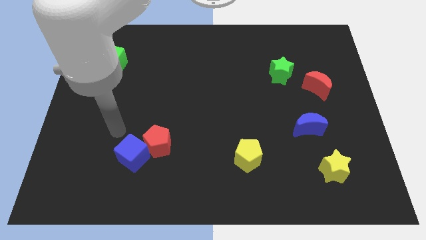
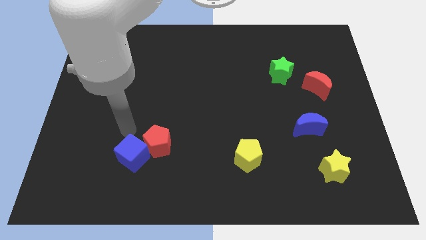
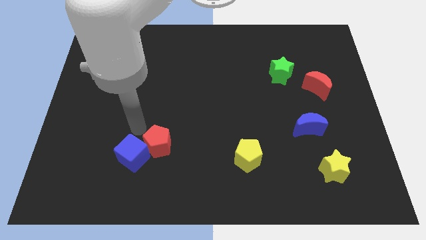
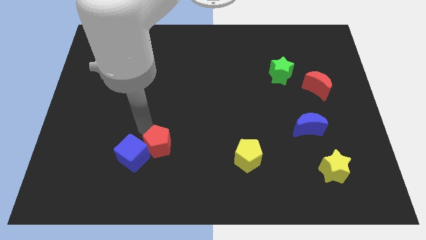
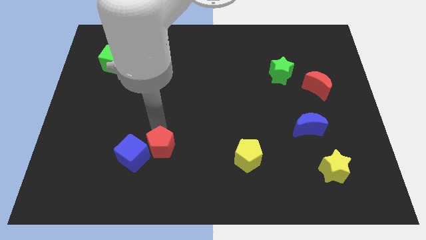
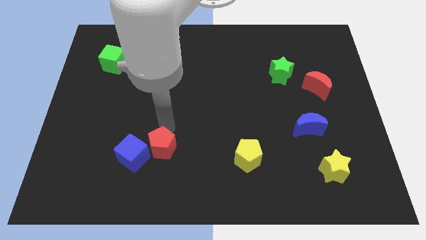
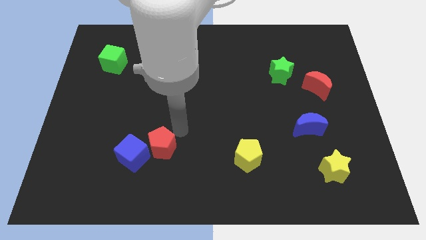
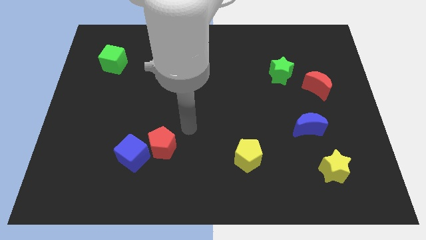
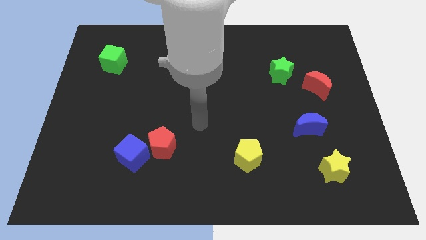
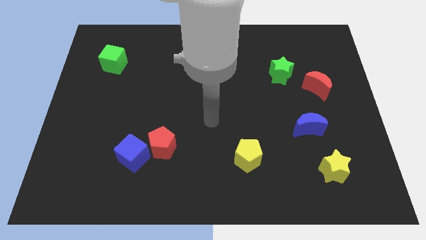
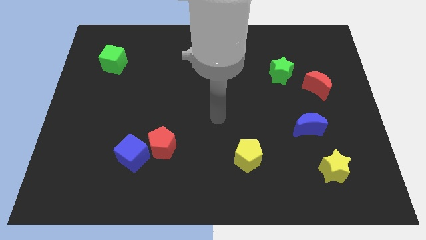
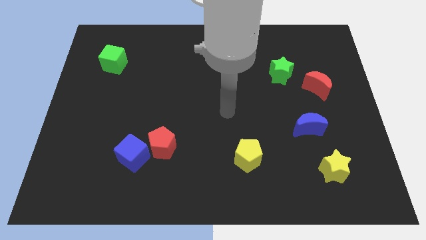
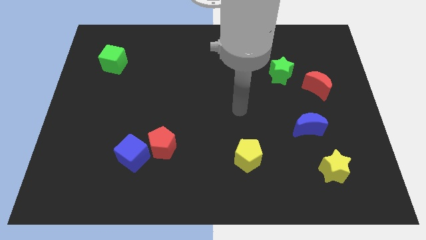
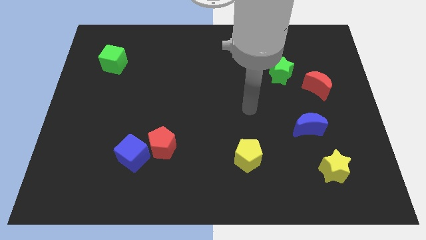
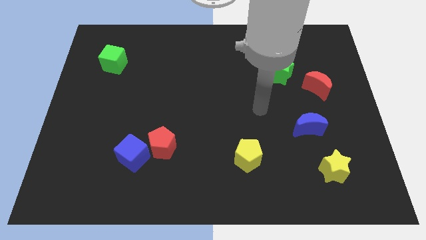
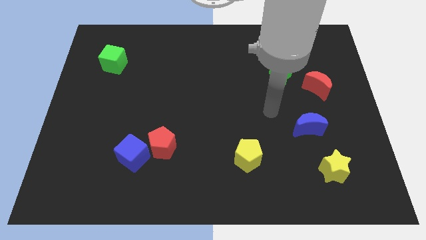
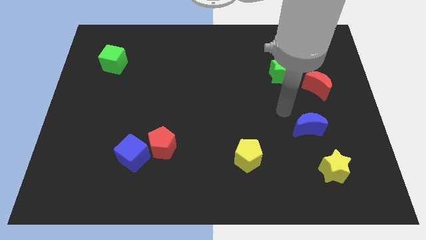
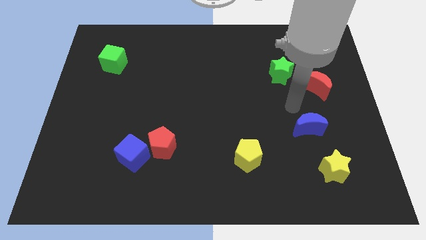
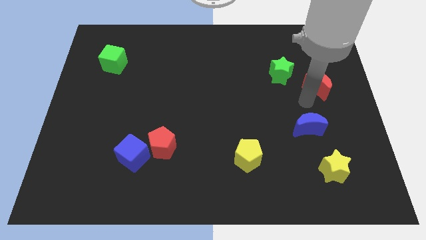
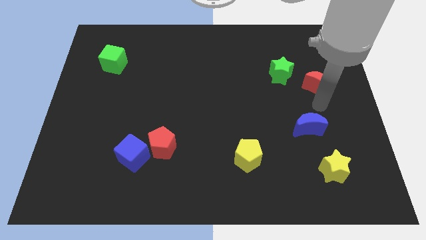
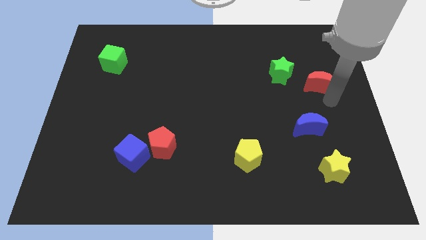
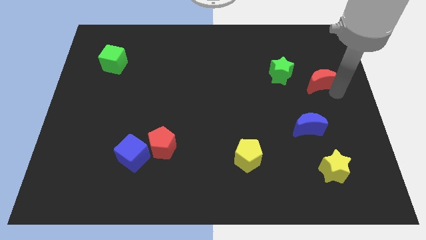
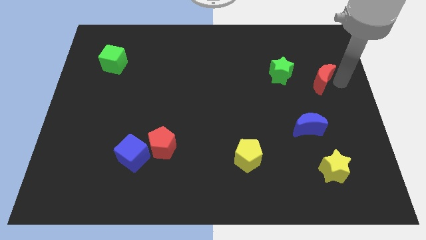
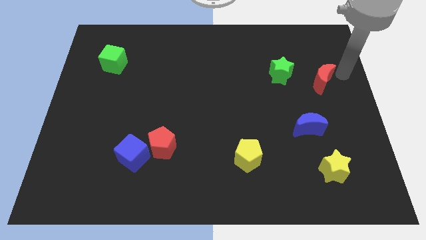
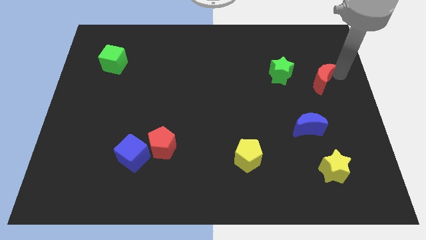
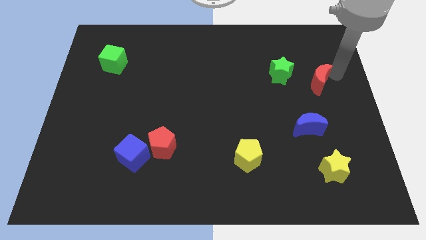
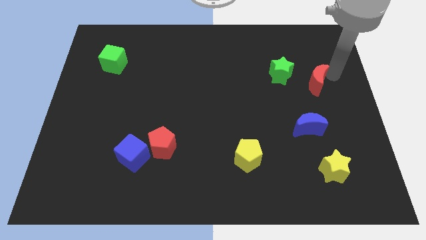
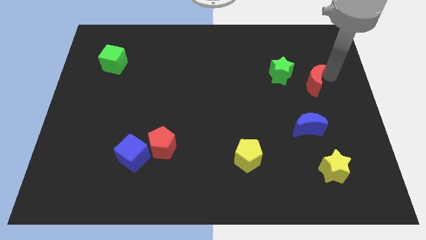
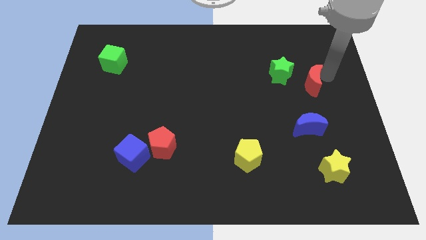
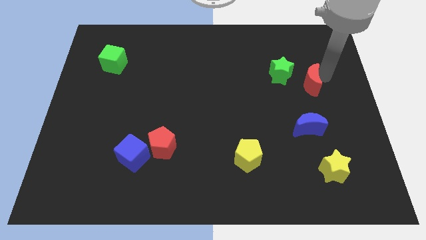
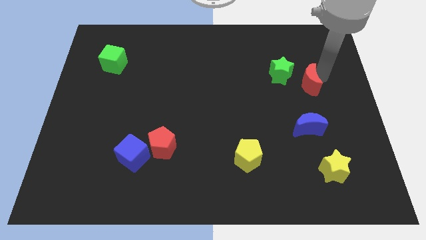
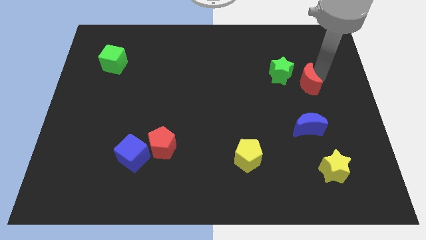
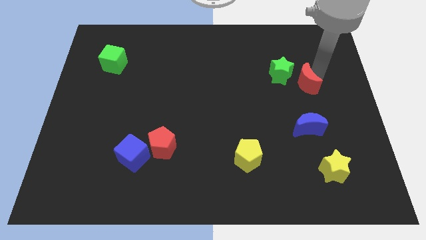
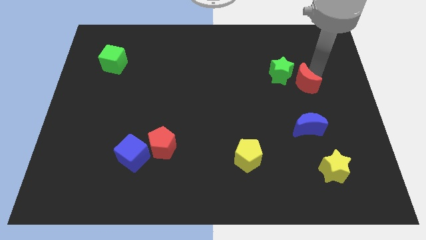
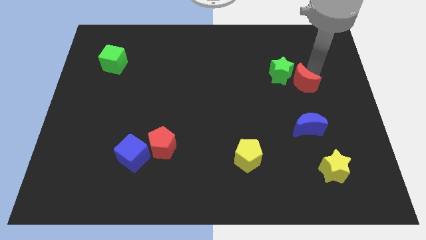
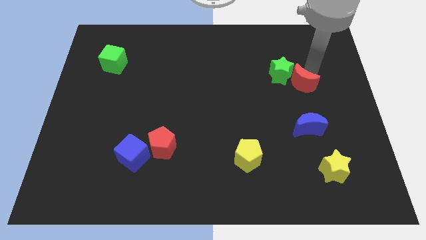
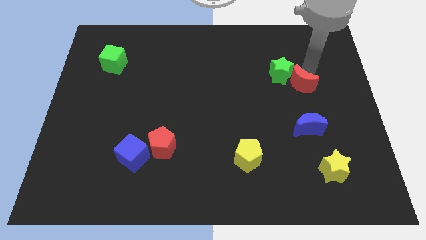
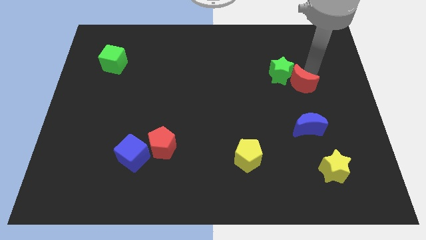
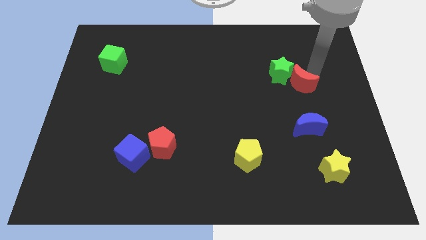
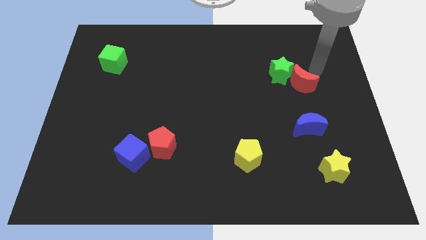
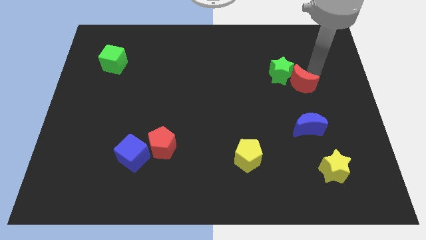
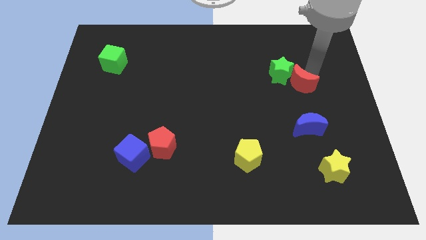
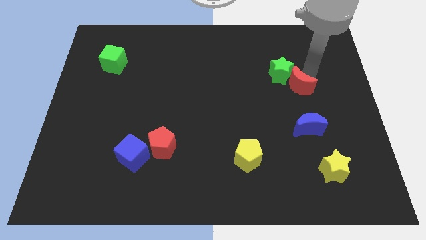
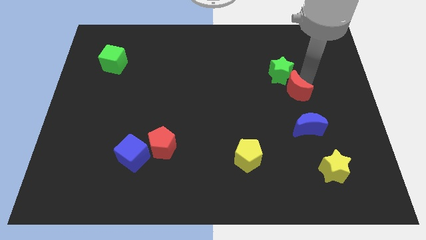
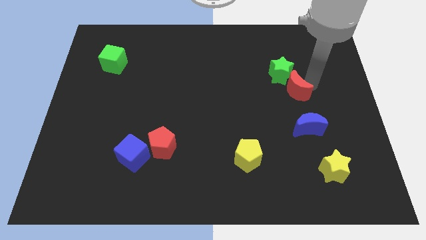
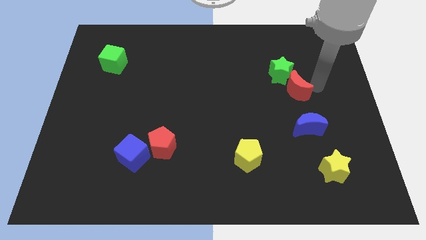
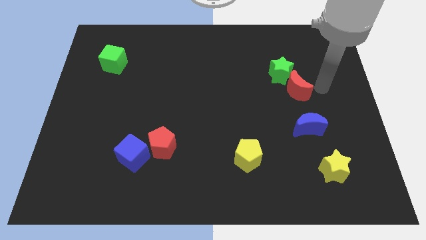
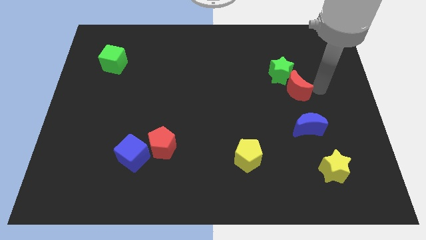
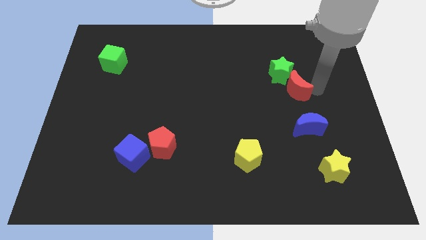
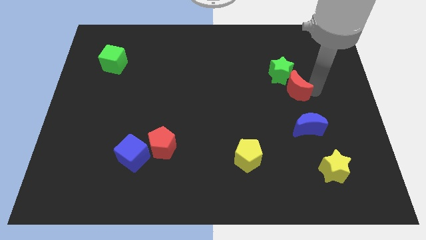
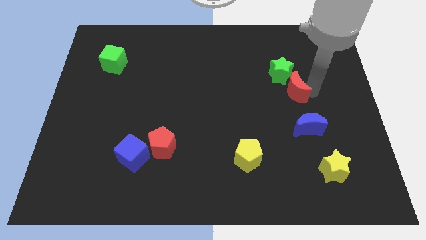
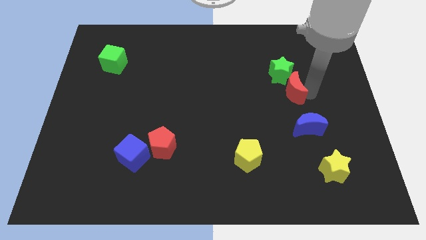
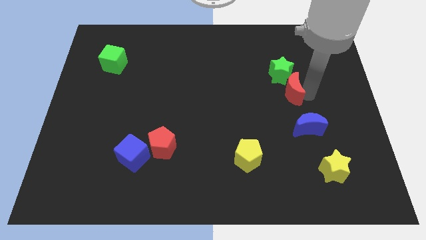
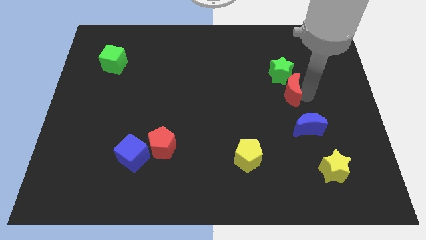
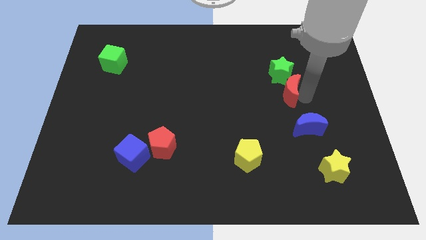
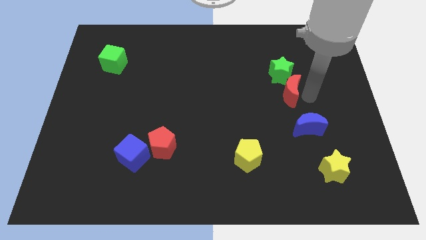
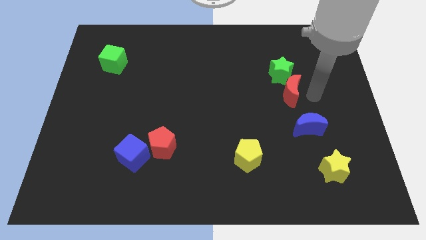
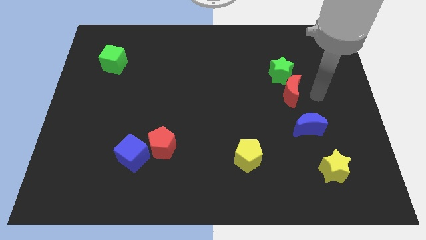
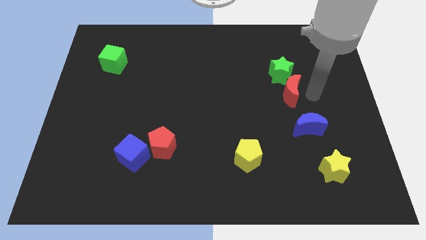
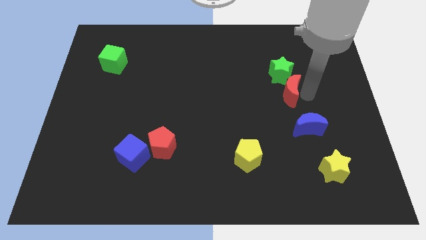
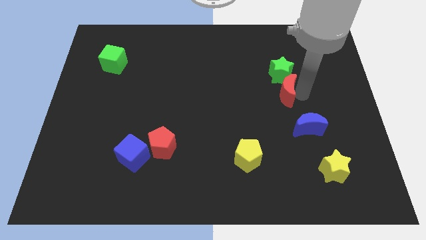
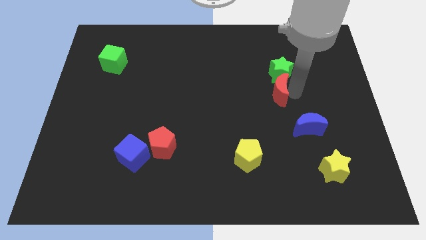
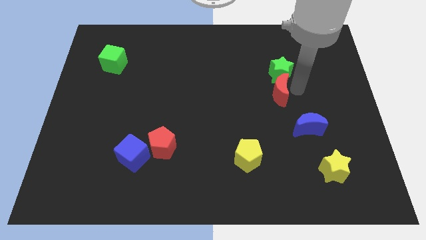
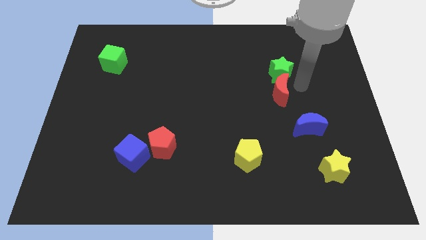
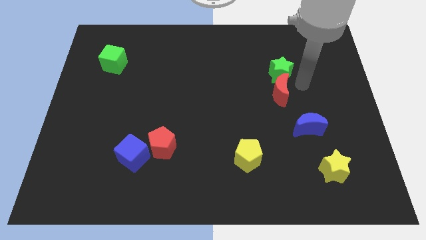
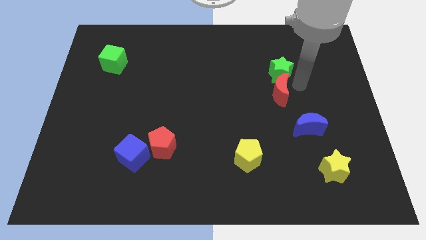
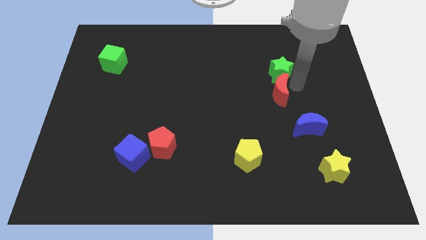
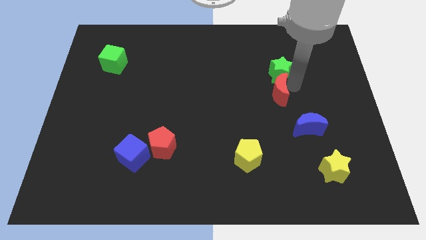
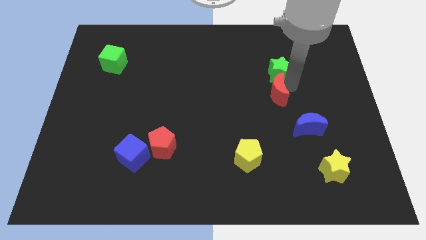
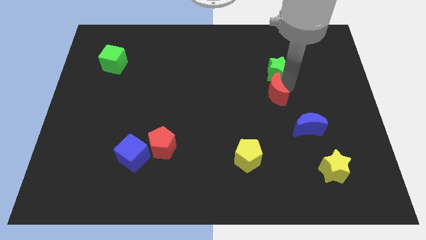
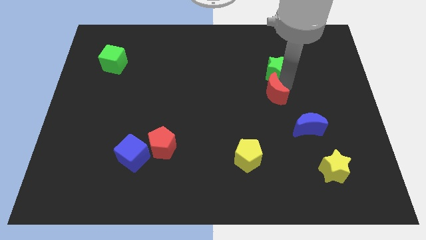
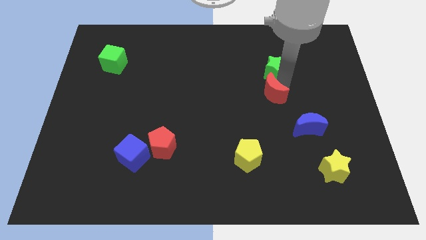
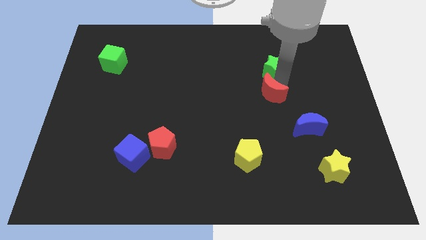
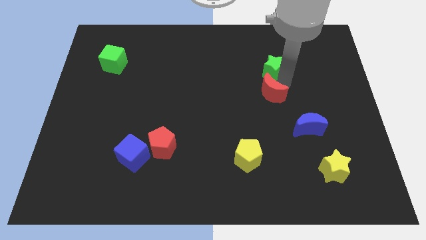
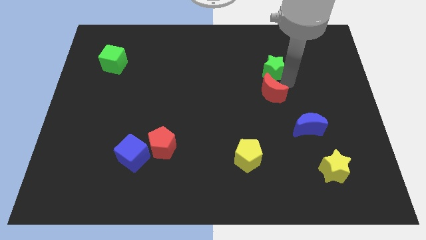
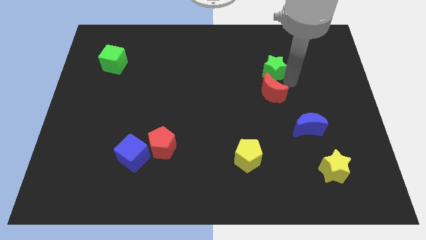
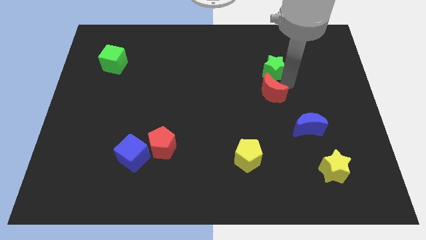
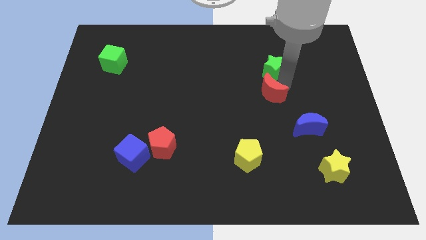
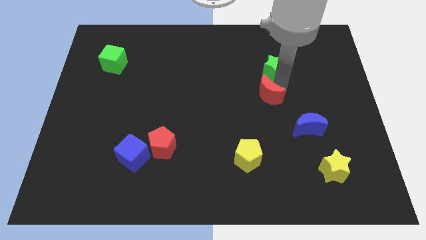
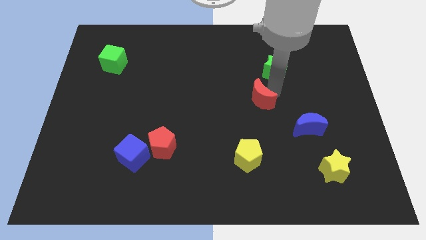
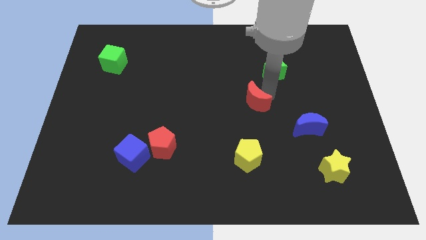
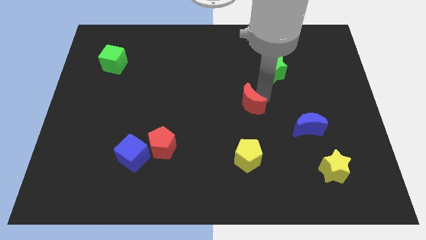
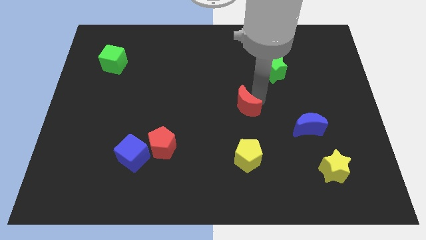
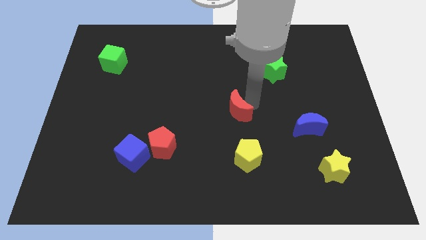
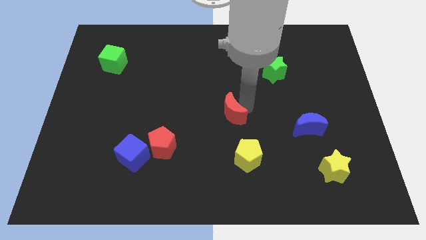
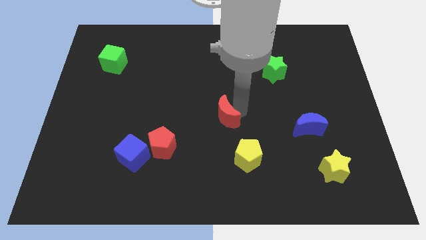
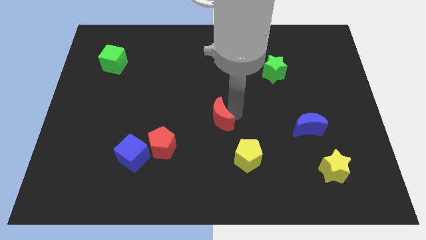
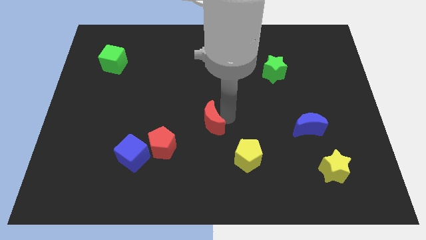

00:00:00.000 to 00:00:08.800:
put the red moon to the top right of the red pentagon
